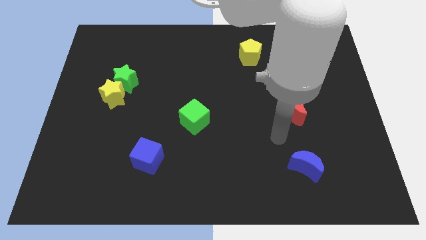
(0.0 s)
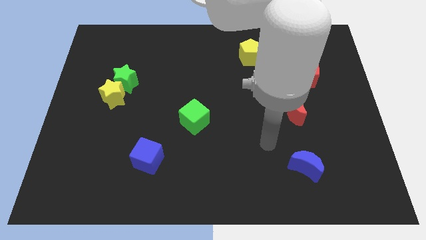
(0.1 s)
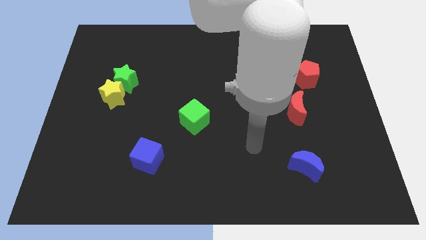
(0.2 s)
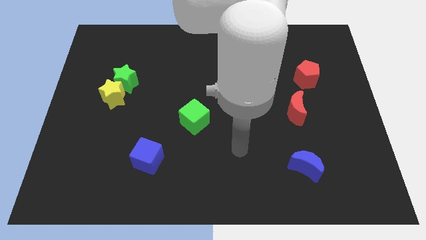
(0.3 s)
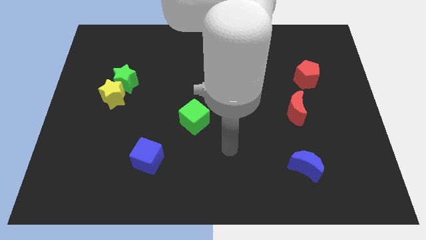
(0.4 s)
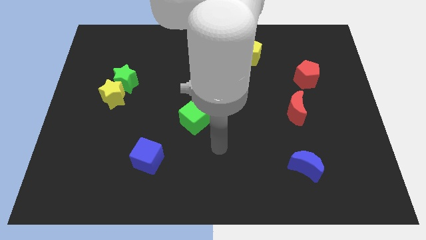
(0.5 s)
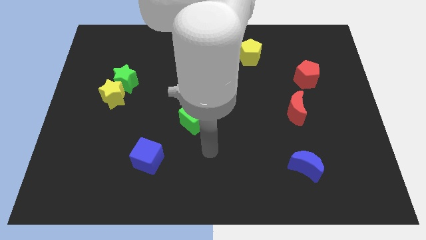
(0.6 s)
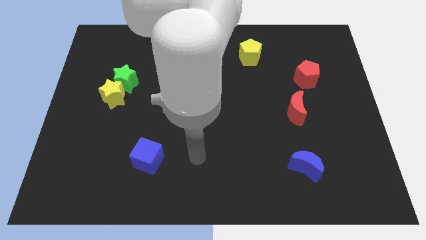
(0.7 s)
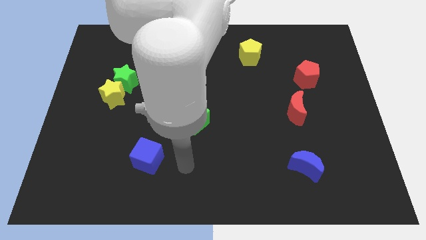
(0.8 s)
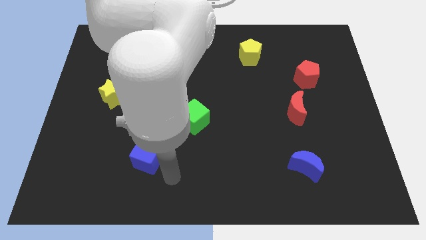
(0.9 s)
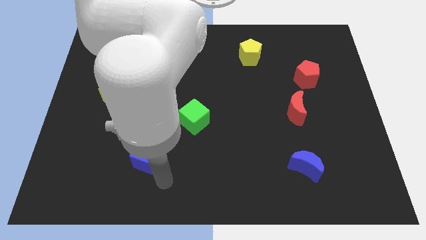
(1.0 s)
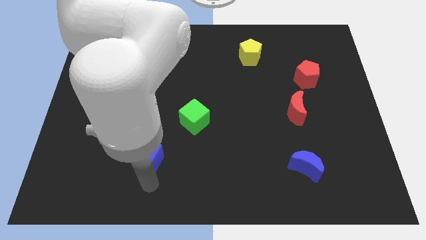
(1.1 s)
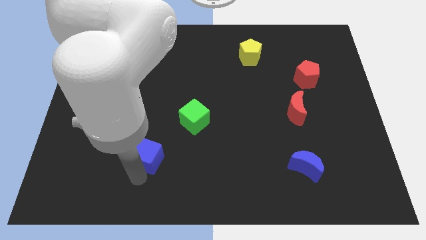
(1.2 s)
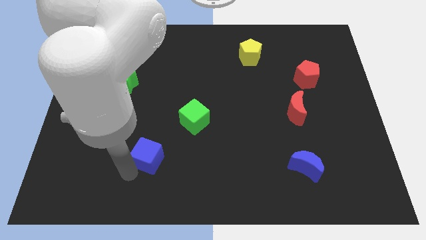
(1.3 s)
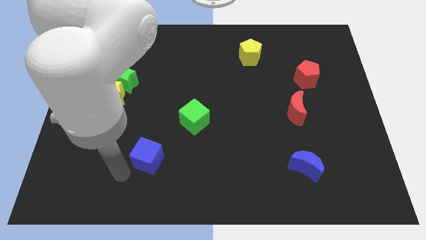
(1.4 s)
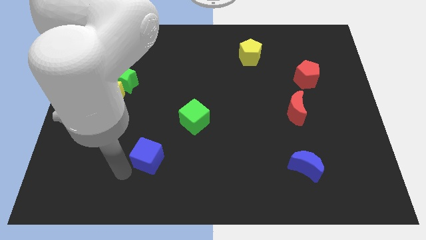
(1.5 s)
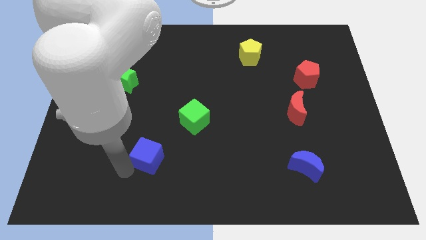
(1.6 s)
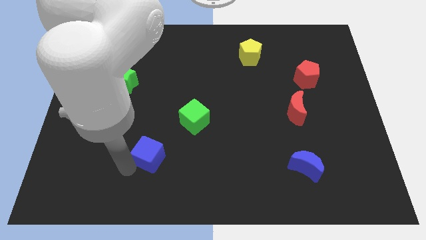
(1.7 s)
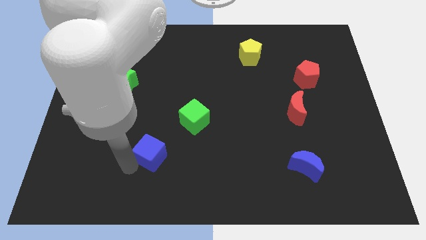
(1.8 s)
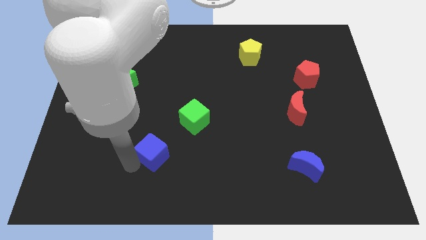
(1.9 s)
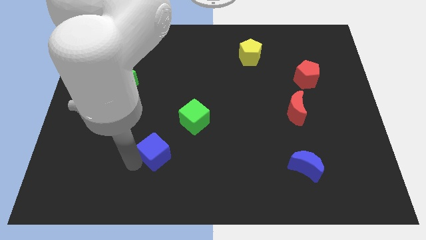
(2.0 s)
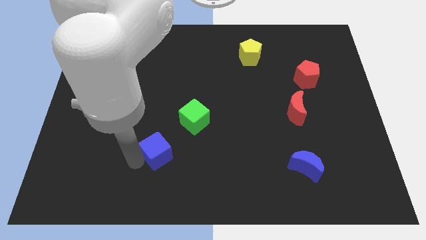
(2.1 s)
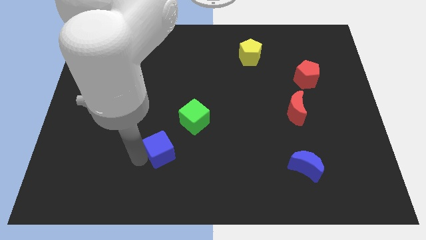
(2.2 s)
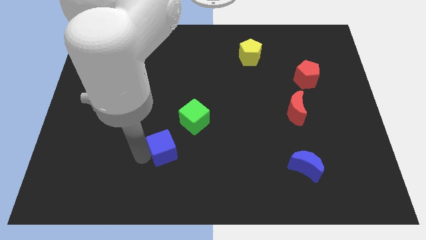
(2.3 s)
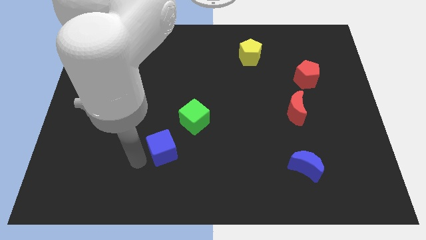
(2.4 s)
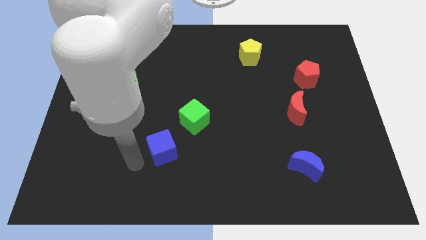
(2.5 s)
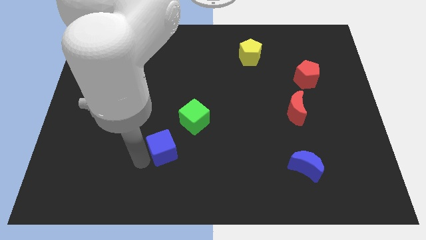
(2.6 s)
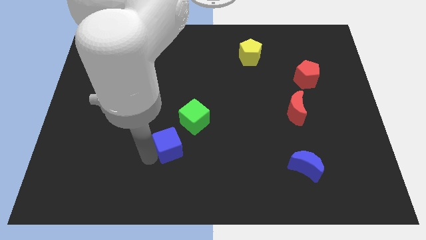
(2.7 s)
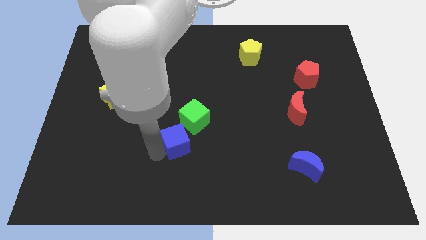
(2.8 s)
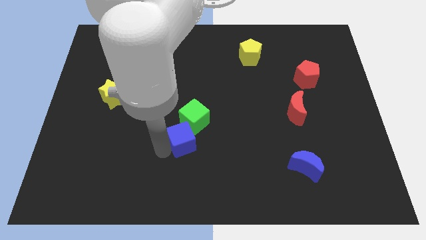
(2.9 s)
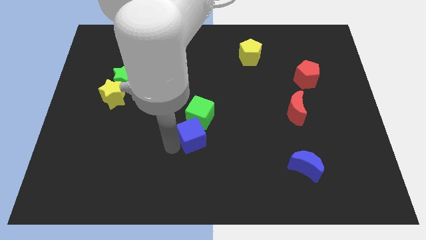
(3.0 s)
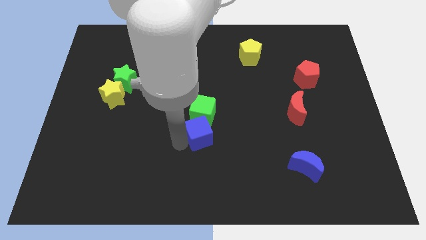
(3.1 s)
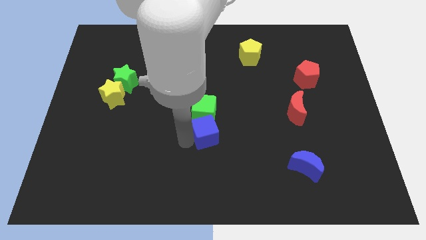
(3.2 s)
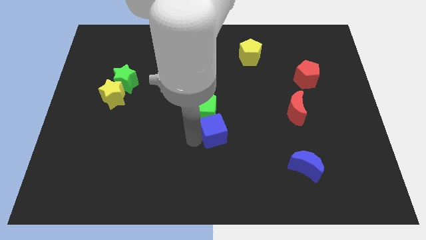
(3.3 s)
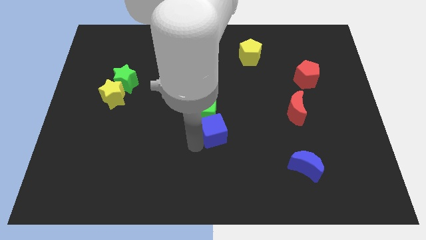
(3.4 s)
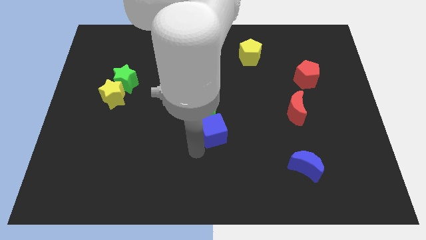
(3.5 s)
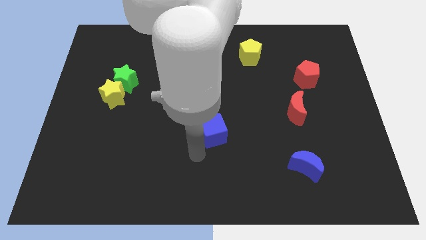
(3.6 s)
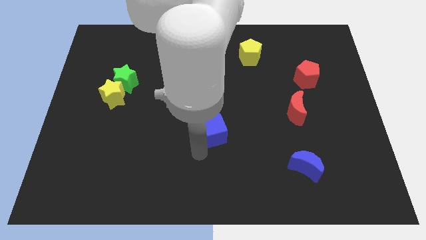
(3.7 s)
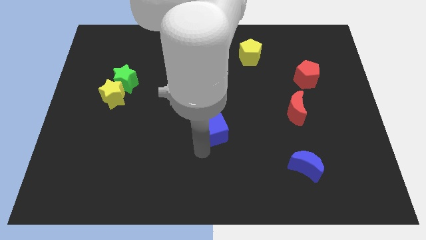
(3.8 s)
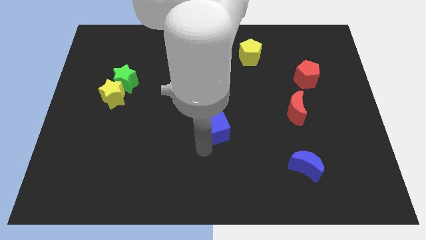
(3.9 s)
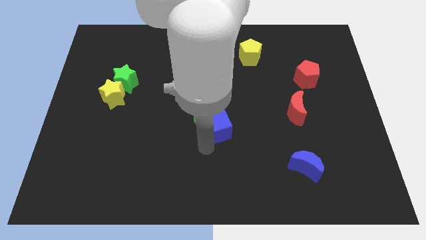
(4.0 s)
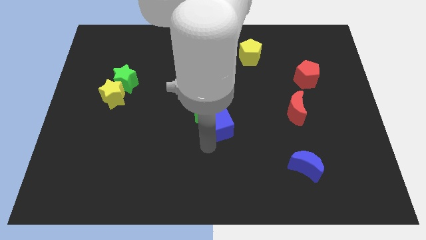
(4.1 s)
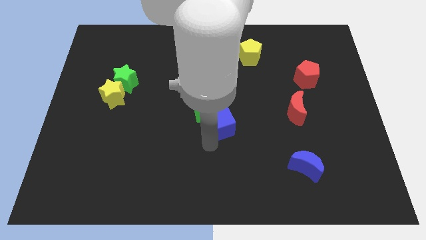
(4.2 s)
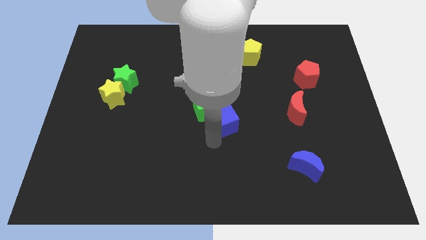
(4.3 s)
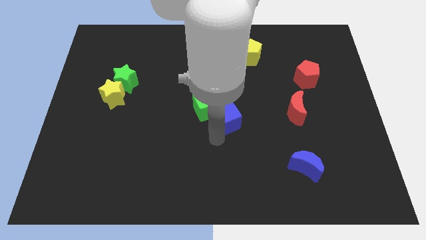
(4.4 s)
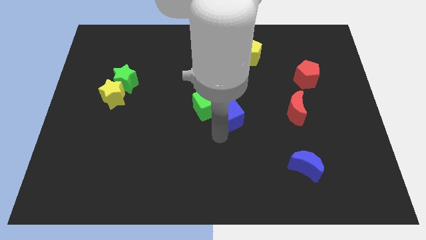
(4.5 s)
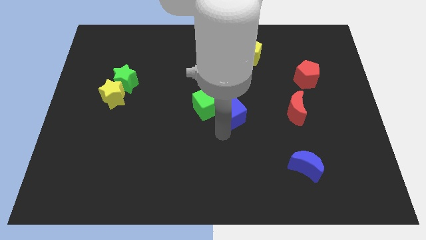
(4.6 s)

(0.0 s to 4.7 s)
move the blue cube diagonally upwards and to the right

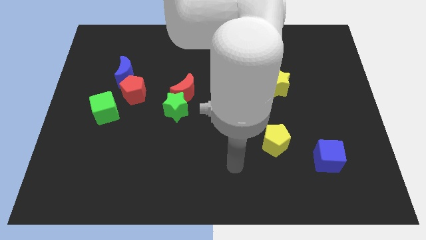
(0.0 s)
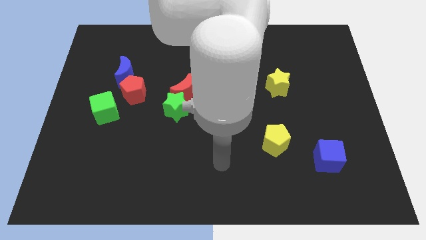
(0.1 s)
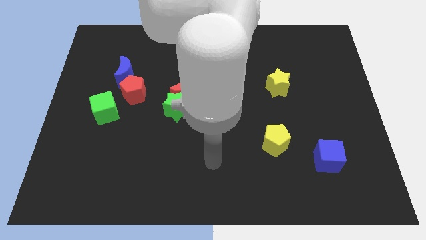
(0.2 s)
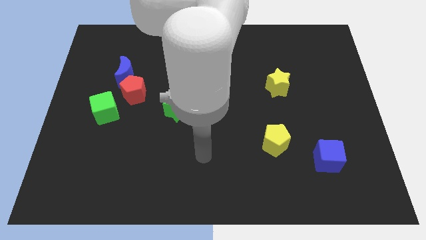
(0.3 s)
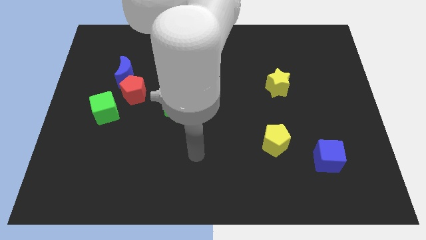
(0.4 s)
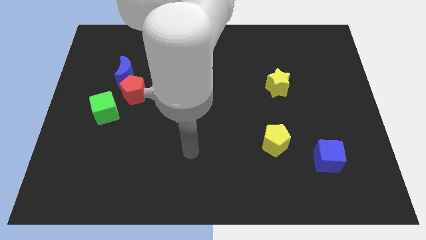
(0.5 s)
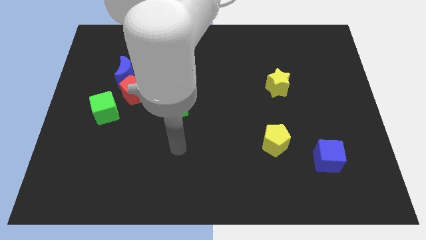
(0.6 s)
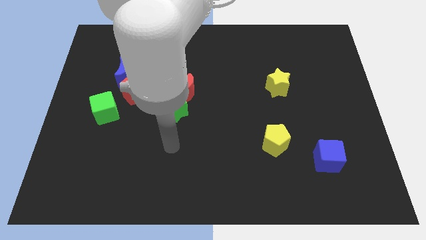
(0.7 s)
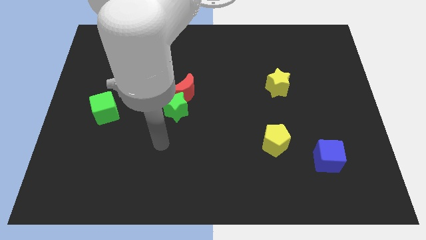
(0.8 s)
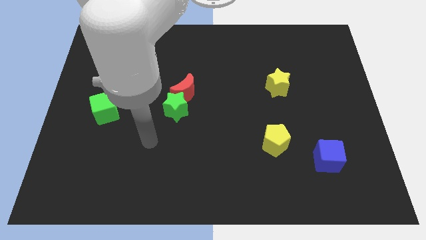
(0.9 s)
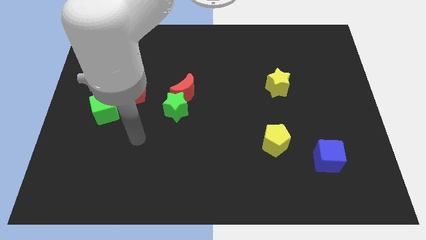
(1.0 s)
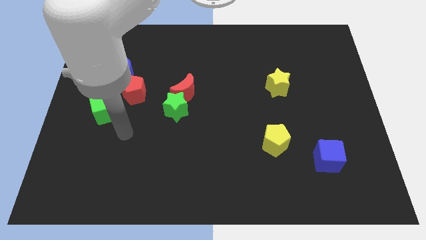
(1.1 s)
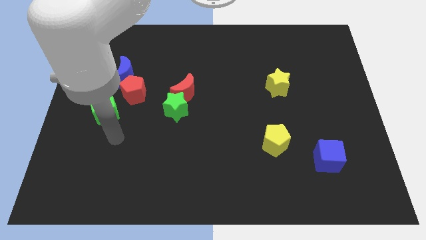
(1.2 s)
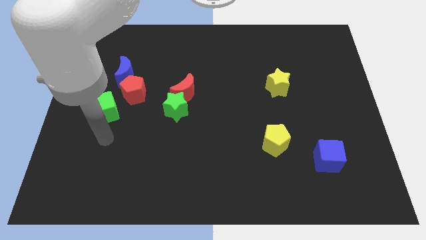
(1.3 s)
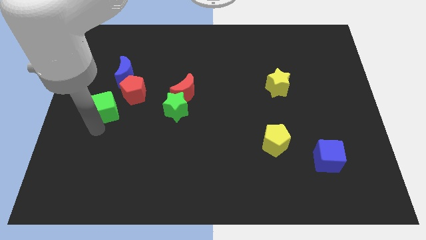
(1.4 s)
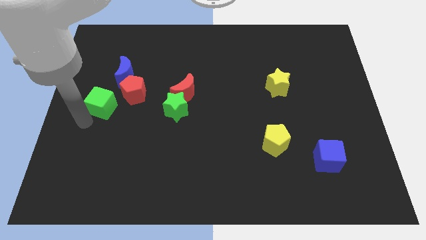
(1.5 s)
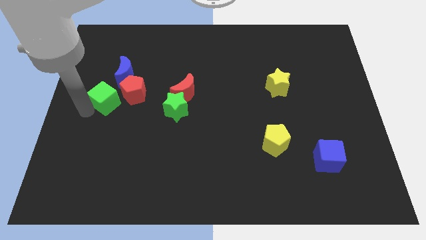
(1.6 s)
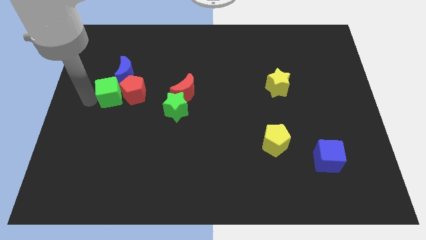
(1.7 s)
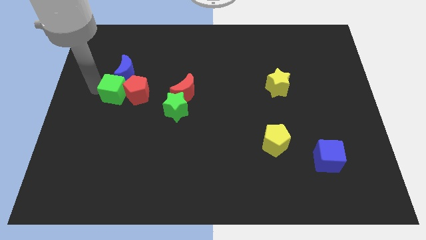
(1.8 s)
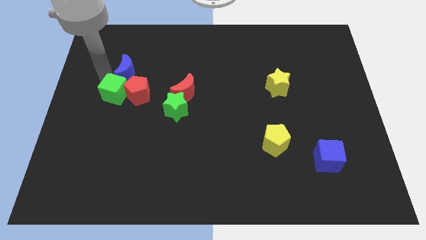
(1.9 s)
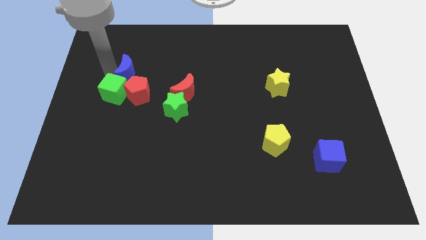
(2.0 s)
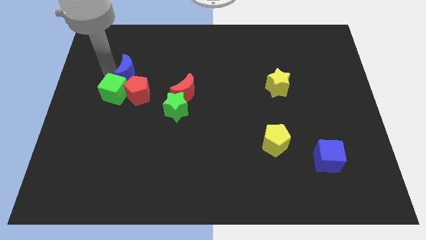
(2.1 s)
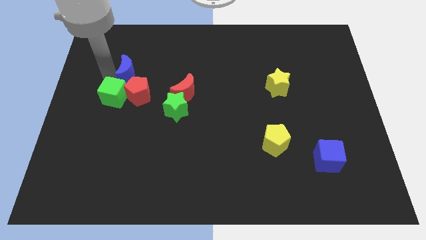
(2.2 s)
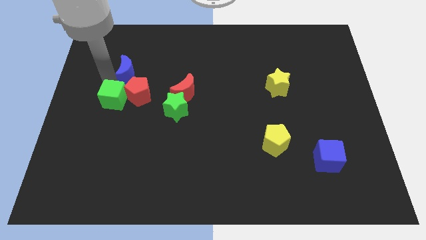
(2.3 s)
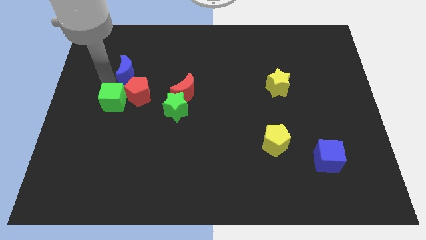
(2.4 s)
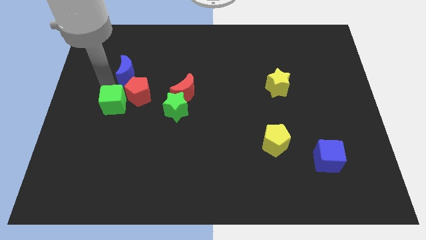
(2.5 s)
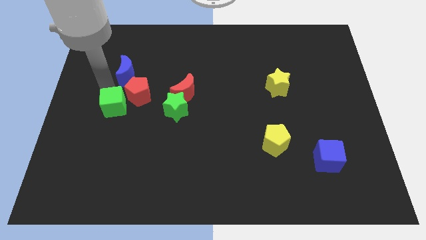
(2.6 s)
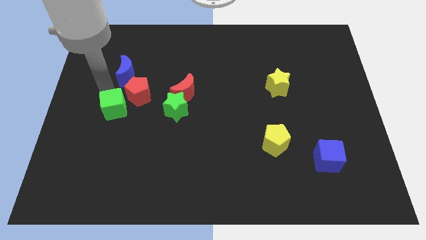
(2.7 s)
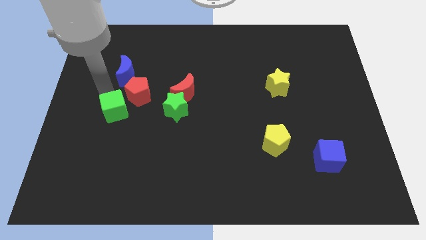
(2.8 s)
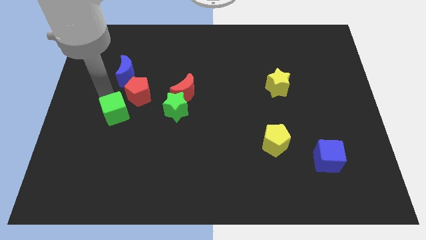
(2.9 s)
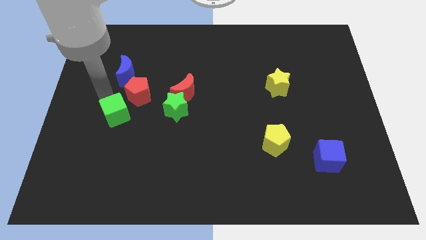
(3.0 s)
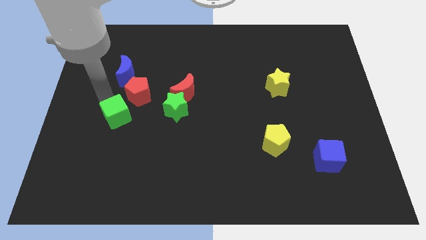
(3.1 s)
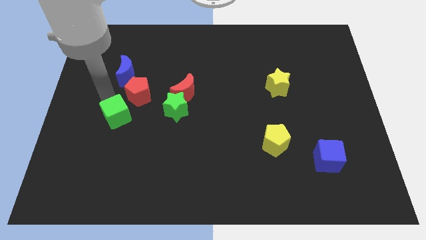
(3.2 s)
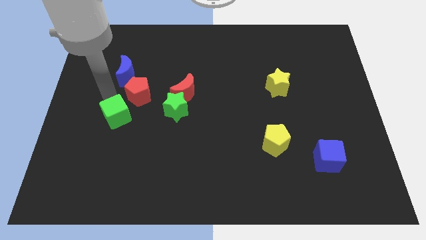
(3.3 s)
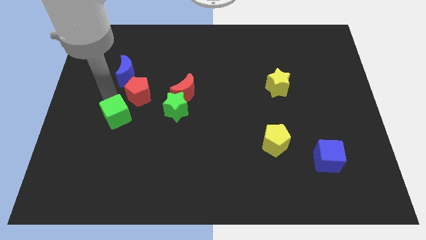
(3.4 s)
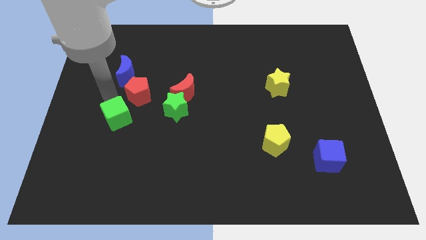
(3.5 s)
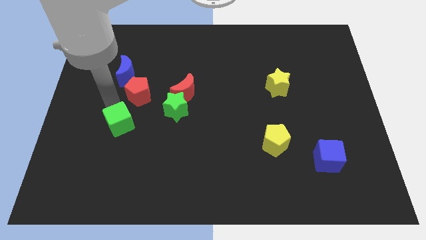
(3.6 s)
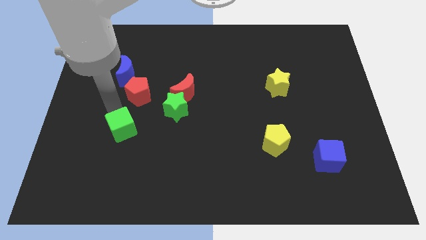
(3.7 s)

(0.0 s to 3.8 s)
push the green cube diagonally downwards and to the right a bit
